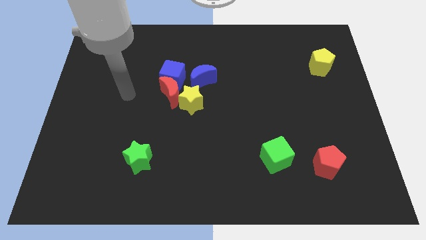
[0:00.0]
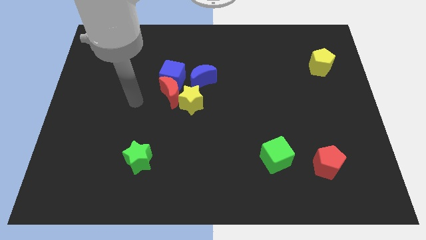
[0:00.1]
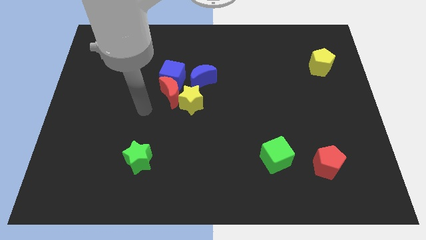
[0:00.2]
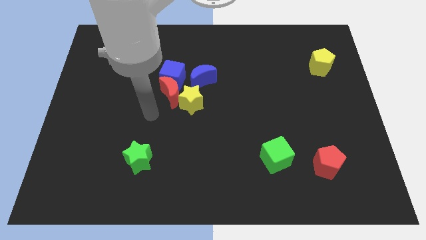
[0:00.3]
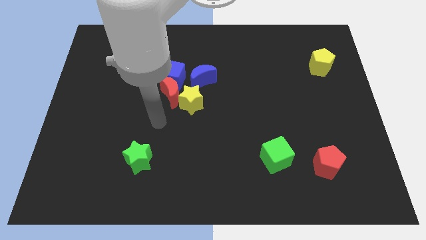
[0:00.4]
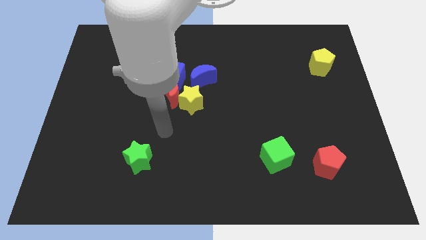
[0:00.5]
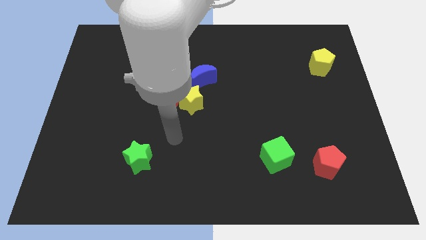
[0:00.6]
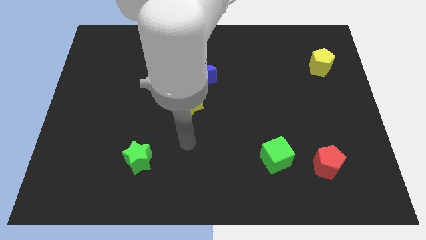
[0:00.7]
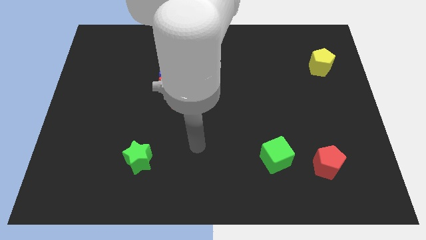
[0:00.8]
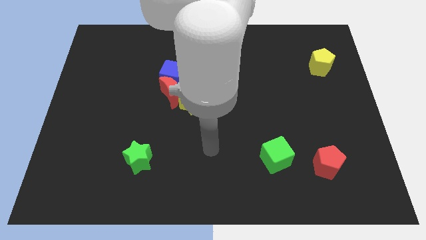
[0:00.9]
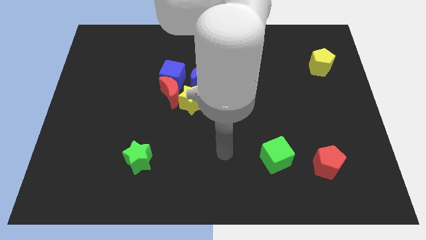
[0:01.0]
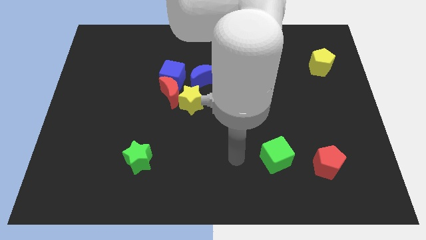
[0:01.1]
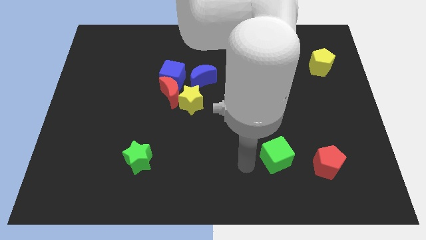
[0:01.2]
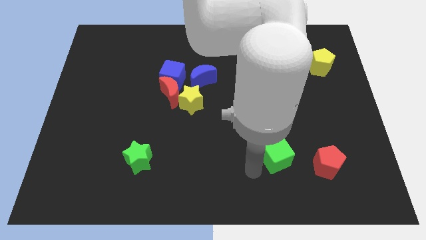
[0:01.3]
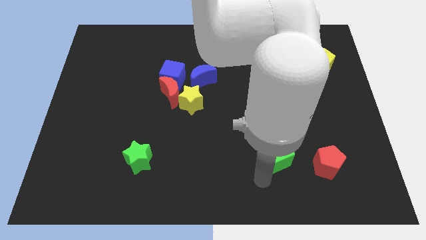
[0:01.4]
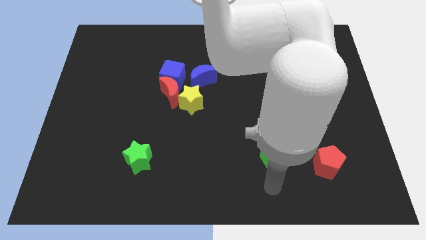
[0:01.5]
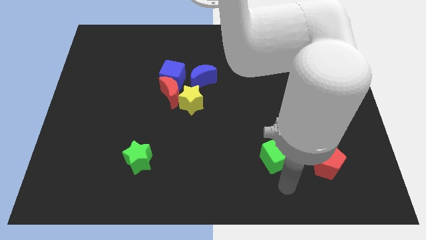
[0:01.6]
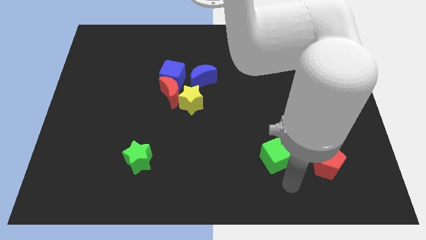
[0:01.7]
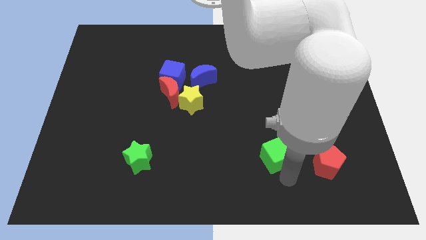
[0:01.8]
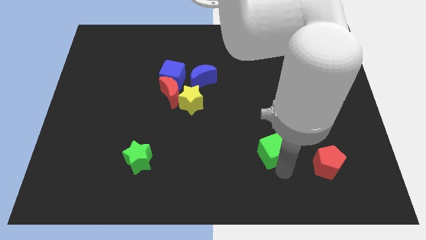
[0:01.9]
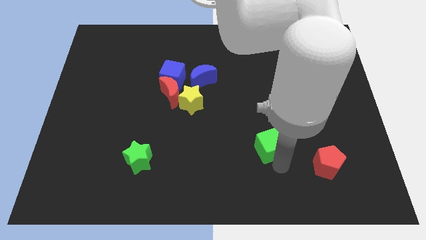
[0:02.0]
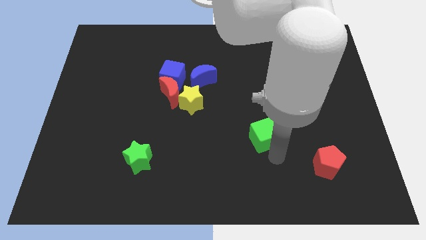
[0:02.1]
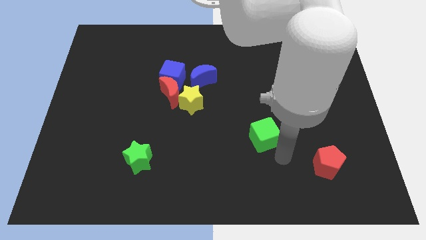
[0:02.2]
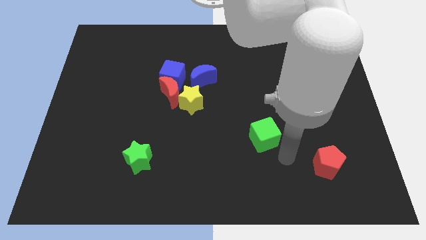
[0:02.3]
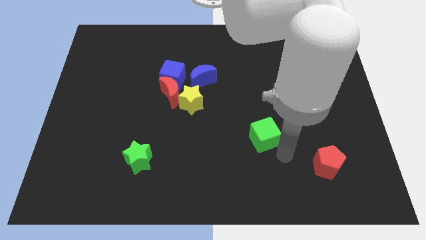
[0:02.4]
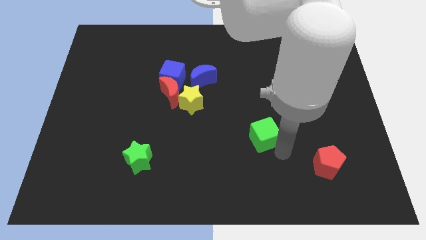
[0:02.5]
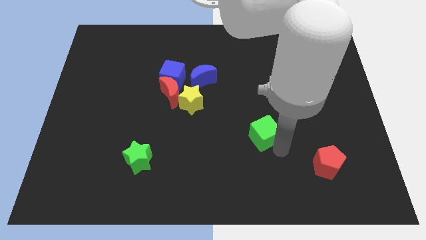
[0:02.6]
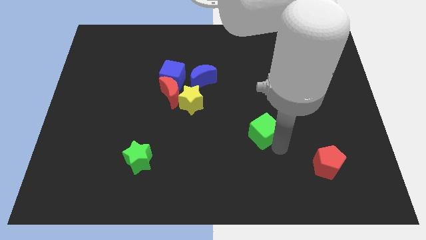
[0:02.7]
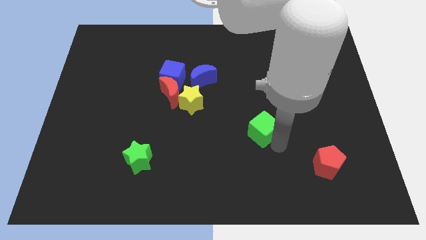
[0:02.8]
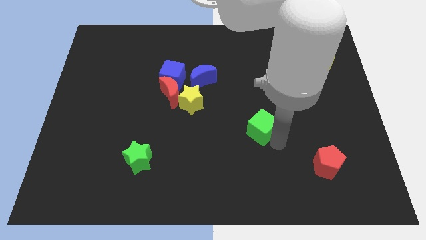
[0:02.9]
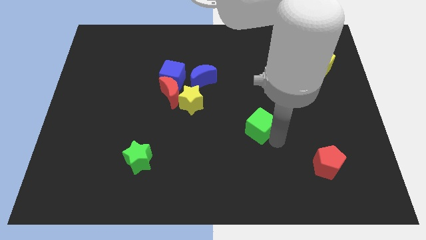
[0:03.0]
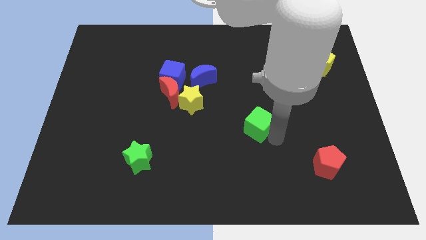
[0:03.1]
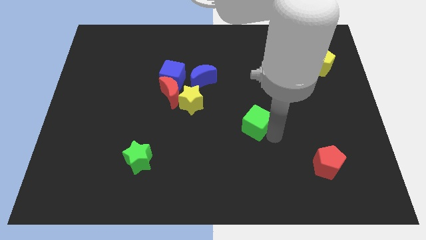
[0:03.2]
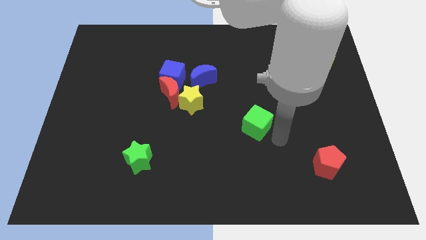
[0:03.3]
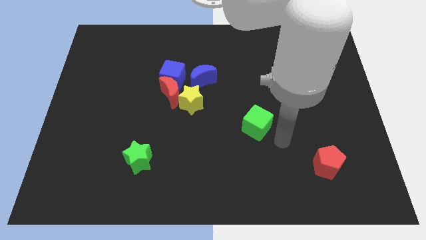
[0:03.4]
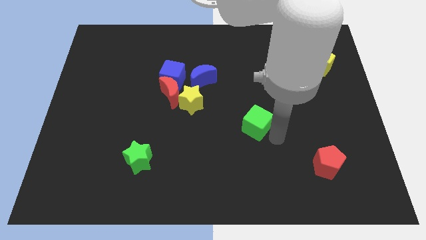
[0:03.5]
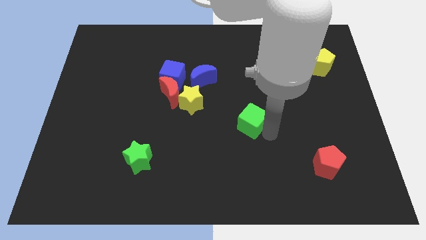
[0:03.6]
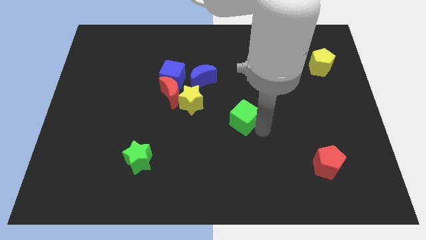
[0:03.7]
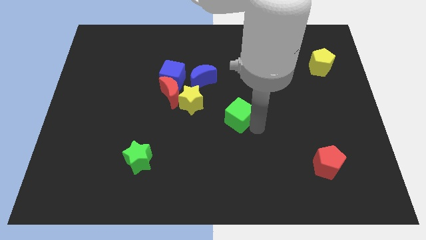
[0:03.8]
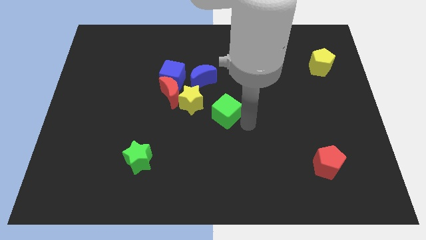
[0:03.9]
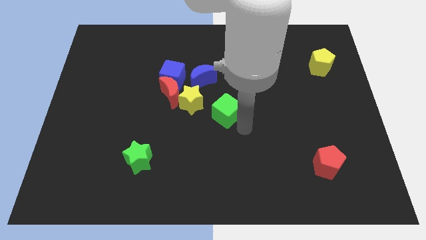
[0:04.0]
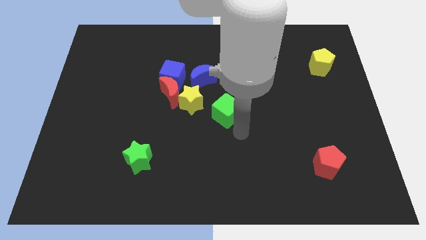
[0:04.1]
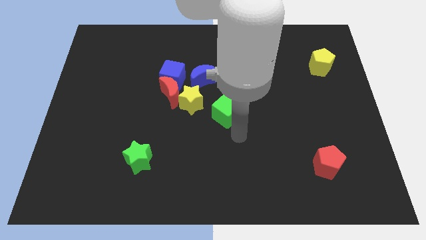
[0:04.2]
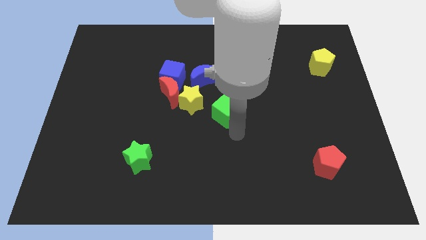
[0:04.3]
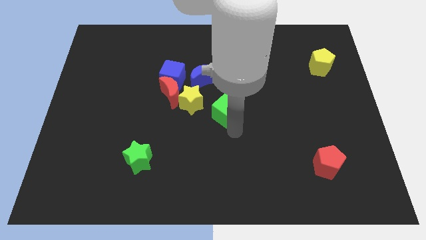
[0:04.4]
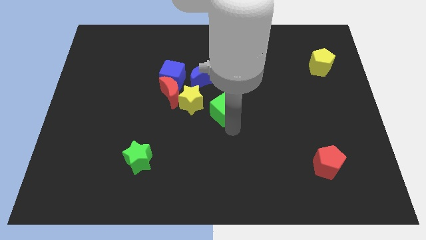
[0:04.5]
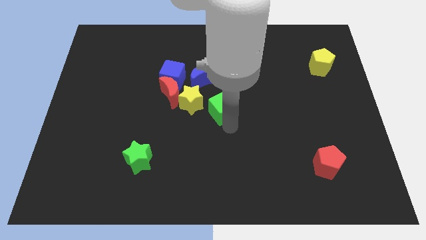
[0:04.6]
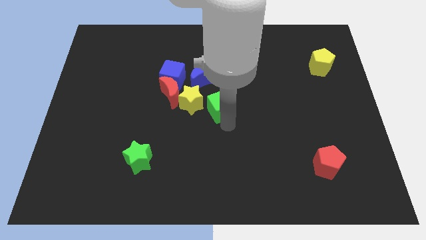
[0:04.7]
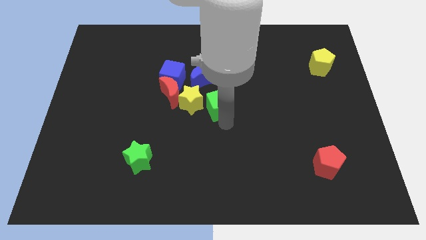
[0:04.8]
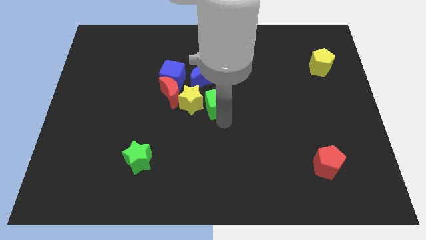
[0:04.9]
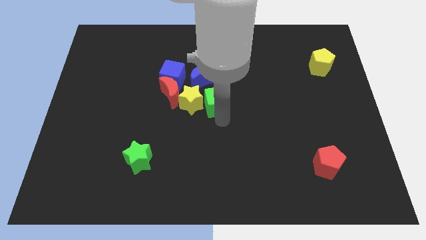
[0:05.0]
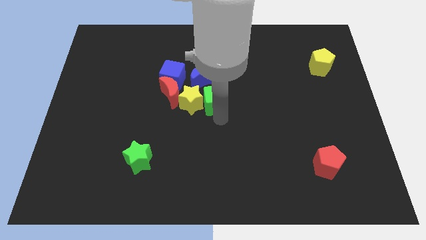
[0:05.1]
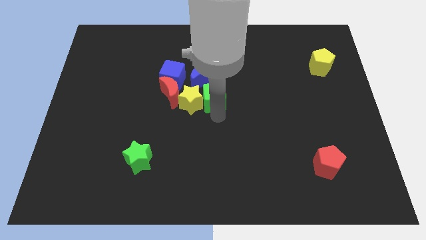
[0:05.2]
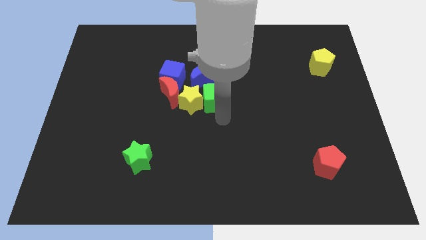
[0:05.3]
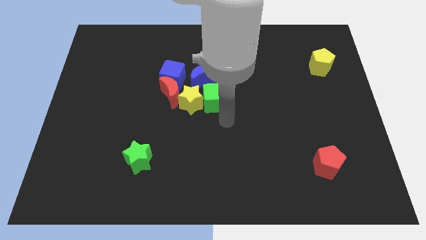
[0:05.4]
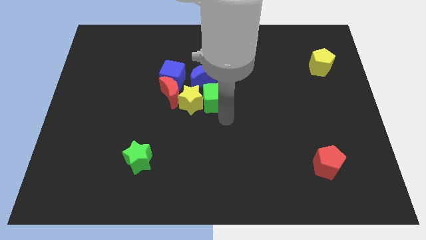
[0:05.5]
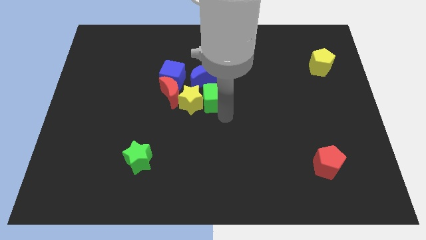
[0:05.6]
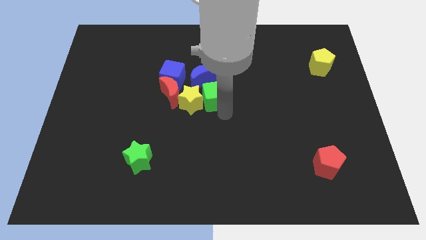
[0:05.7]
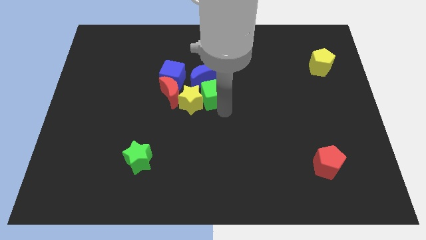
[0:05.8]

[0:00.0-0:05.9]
move the green cube to the blue moon
